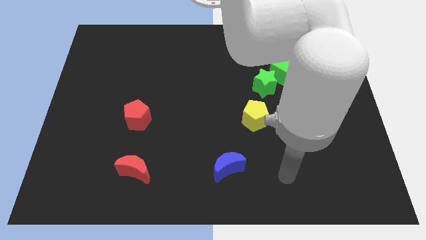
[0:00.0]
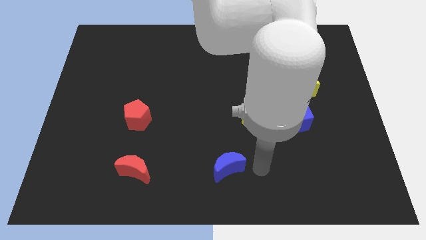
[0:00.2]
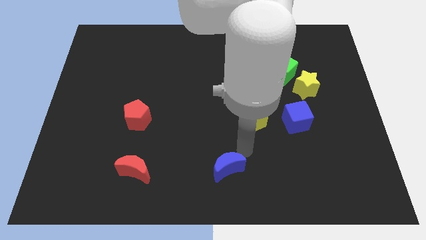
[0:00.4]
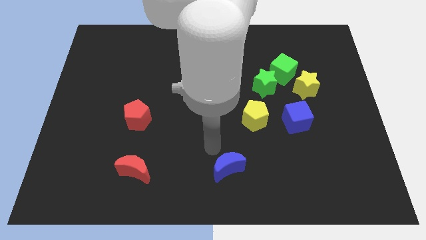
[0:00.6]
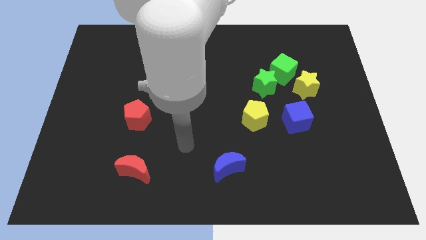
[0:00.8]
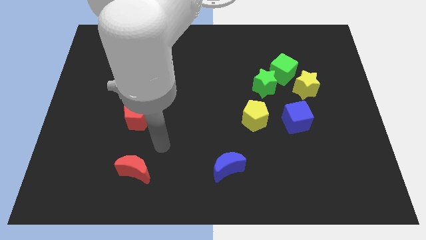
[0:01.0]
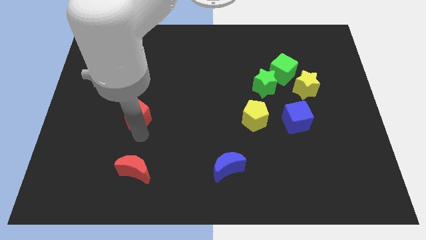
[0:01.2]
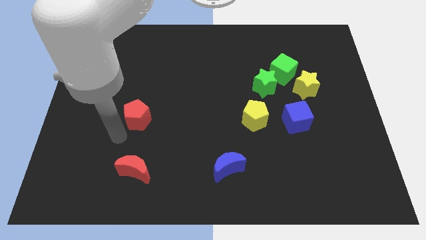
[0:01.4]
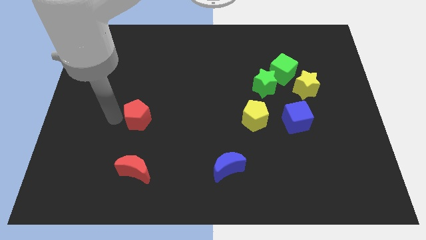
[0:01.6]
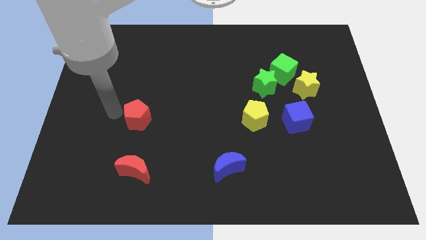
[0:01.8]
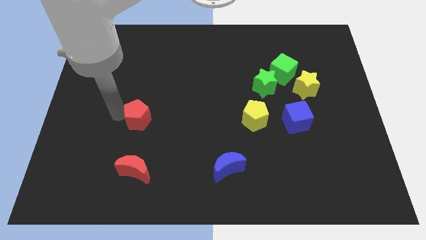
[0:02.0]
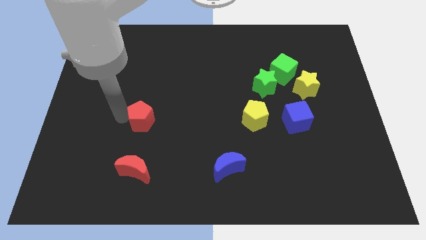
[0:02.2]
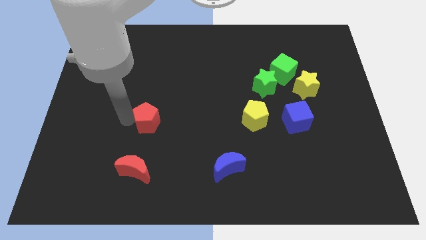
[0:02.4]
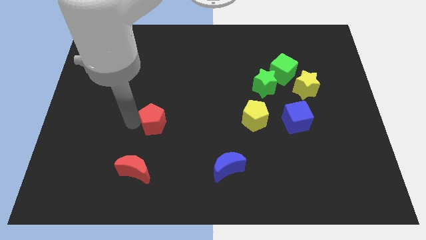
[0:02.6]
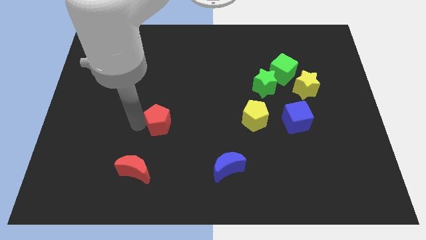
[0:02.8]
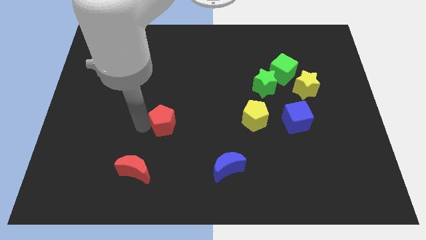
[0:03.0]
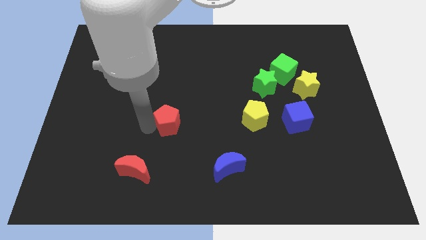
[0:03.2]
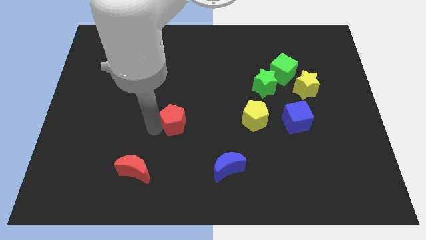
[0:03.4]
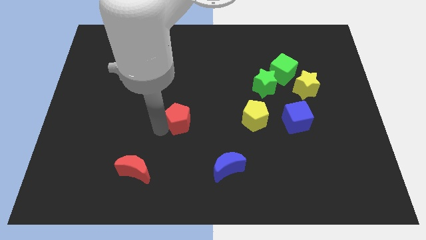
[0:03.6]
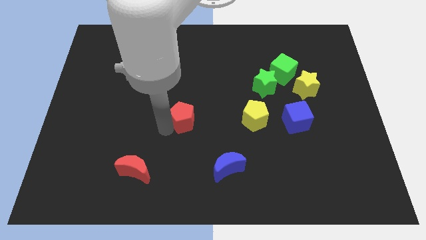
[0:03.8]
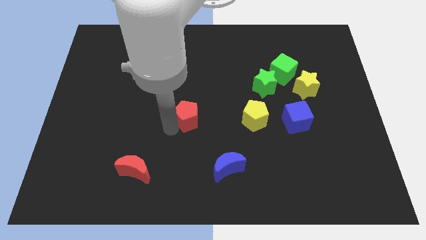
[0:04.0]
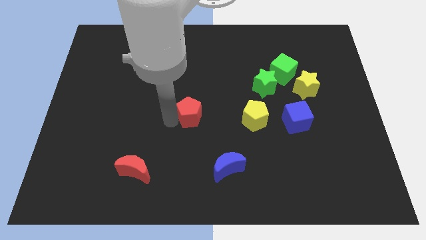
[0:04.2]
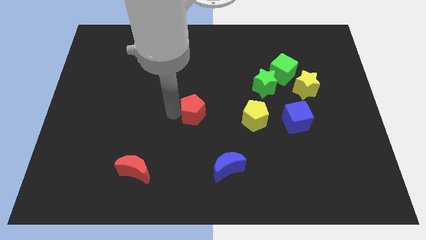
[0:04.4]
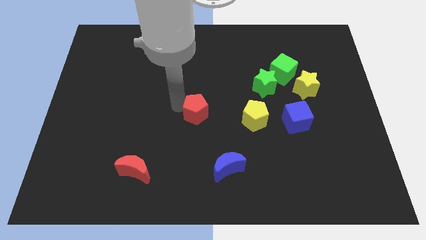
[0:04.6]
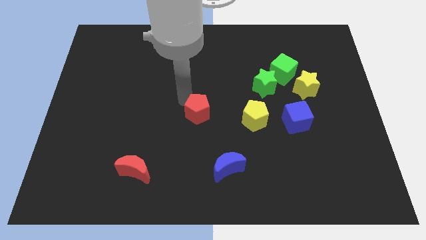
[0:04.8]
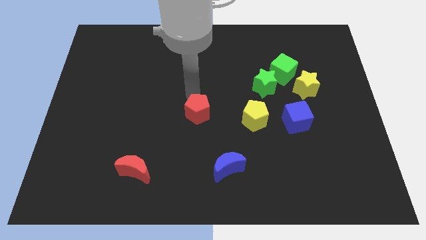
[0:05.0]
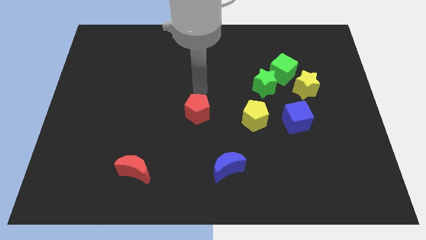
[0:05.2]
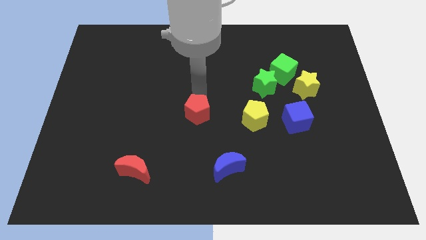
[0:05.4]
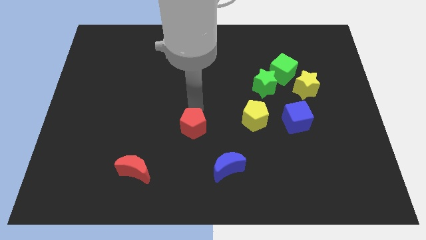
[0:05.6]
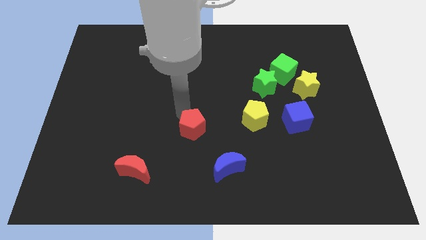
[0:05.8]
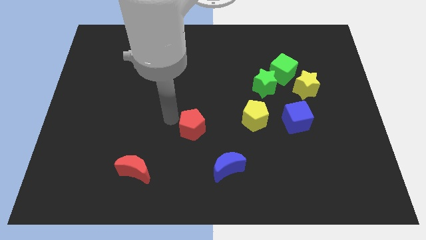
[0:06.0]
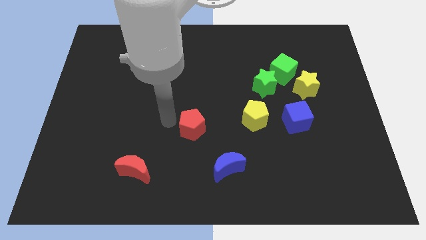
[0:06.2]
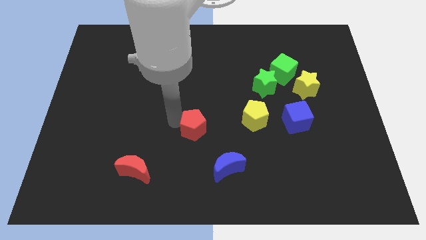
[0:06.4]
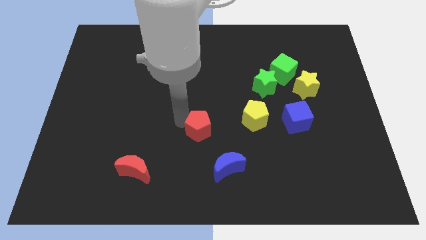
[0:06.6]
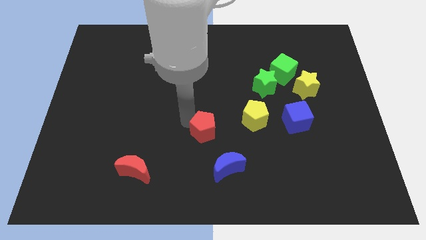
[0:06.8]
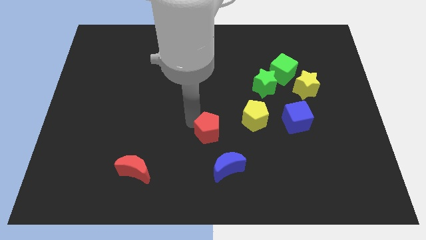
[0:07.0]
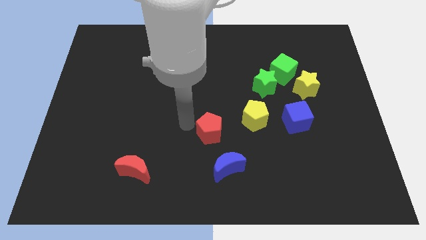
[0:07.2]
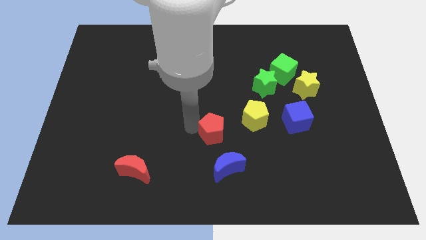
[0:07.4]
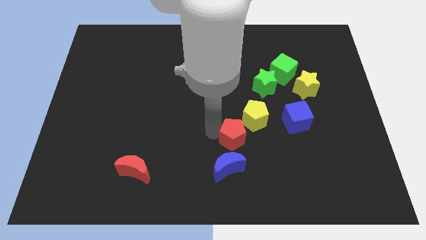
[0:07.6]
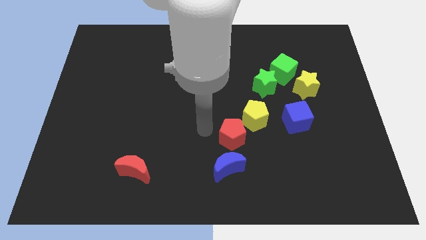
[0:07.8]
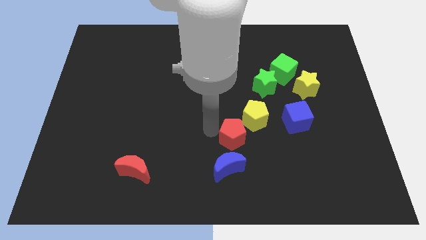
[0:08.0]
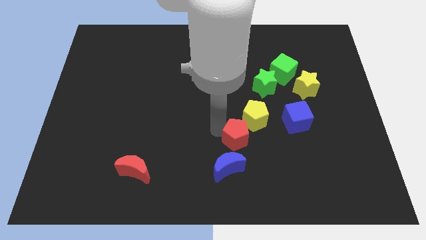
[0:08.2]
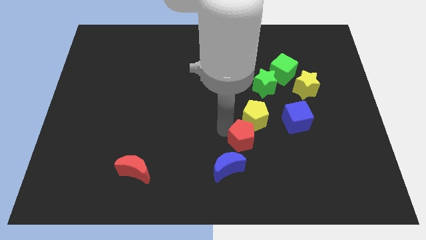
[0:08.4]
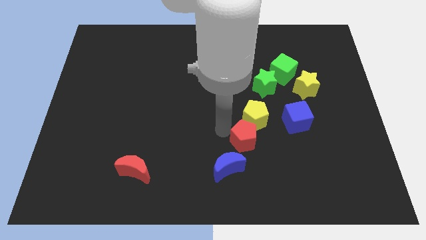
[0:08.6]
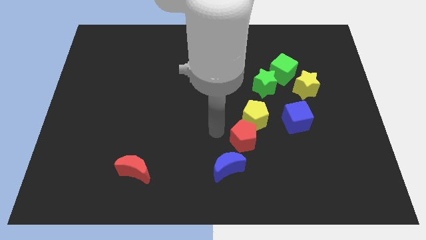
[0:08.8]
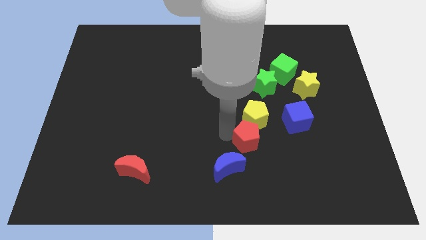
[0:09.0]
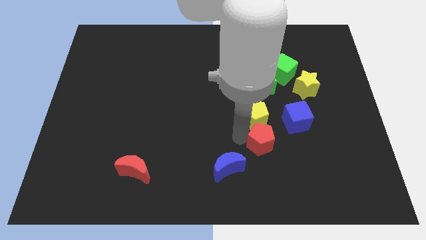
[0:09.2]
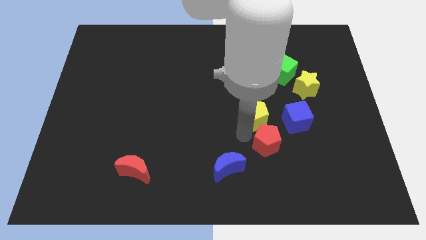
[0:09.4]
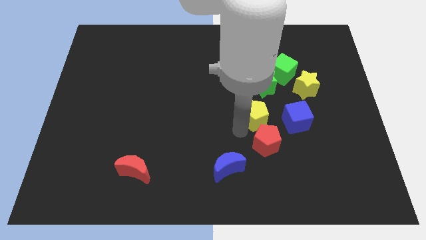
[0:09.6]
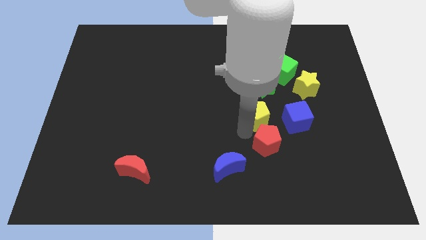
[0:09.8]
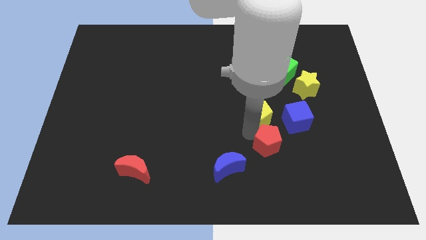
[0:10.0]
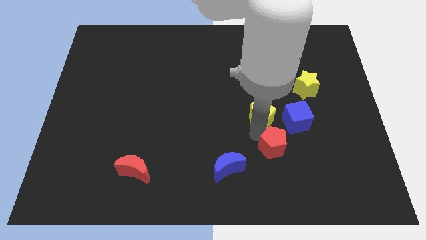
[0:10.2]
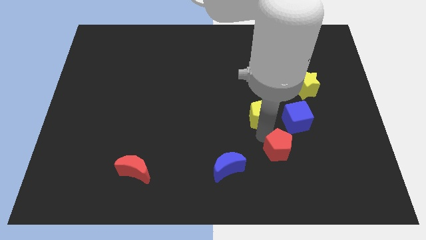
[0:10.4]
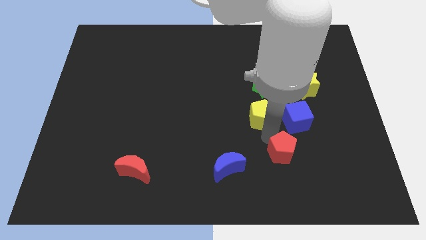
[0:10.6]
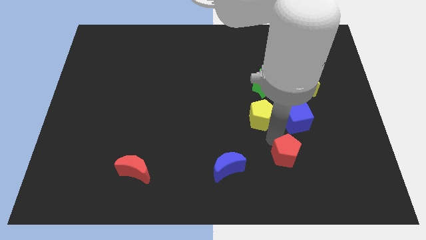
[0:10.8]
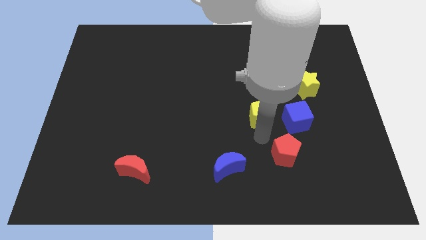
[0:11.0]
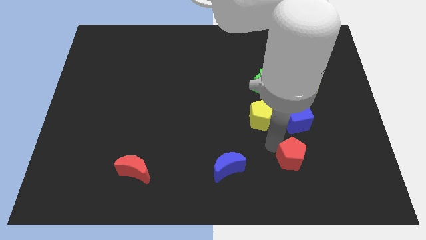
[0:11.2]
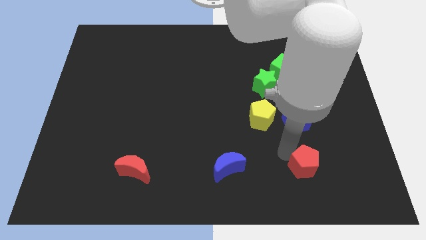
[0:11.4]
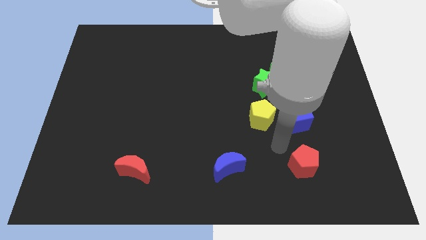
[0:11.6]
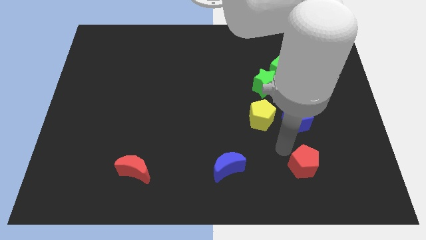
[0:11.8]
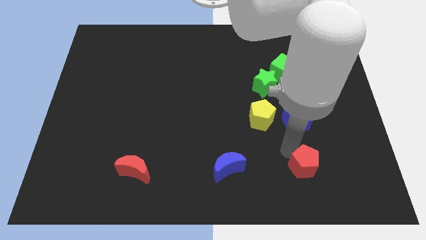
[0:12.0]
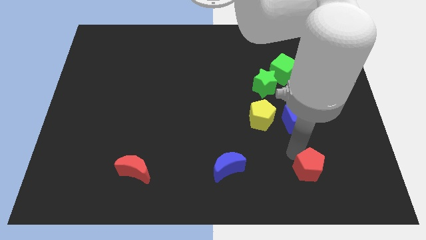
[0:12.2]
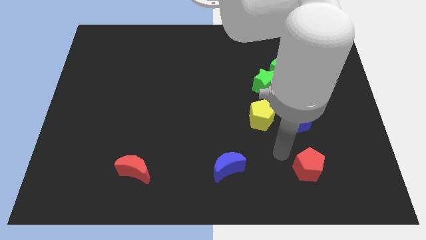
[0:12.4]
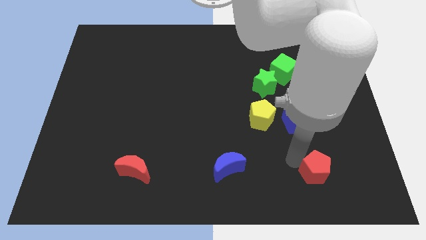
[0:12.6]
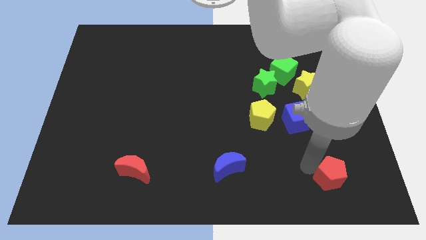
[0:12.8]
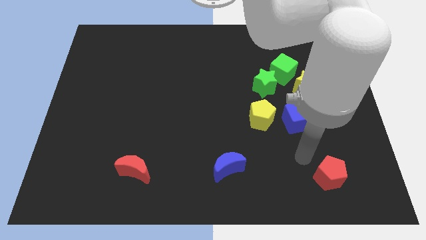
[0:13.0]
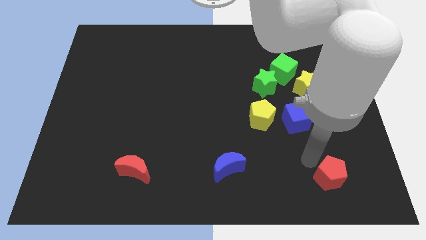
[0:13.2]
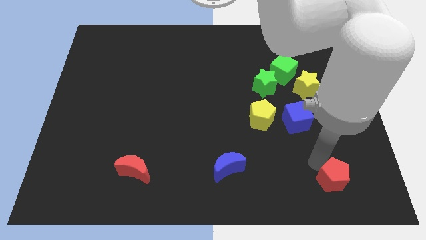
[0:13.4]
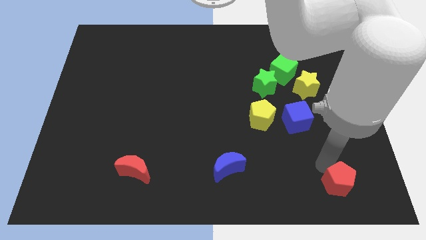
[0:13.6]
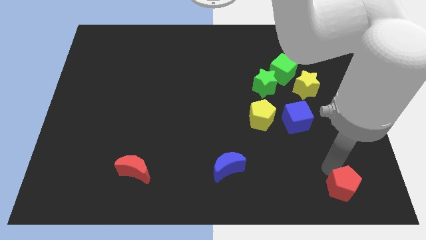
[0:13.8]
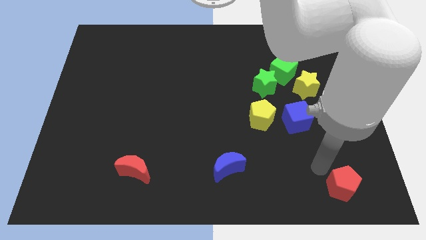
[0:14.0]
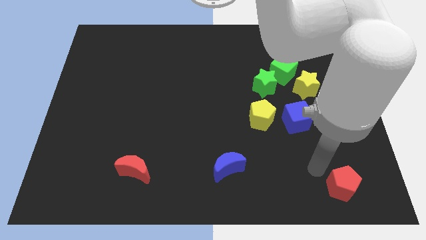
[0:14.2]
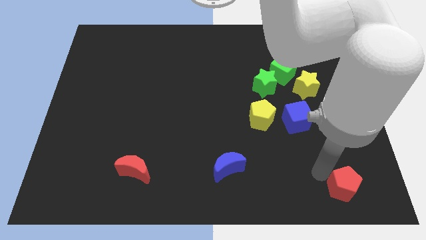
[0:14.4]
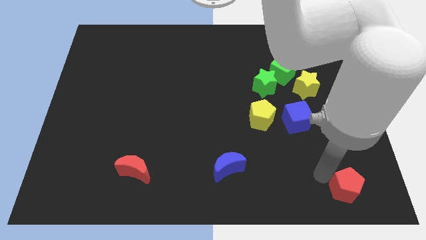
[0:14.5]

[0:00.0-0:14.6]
slide the red pentagon to the bottom right corner

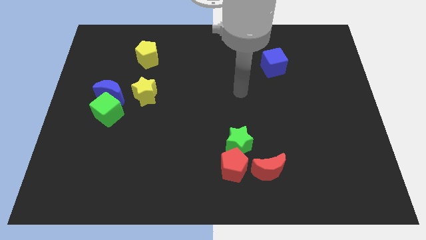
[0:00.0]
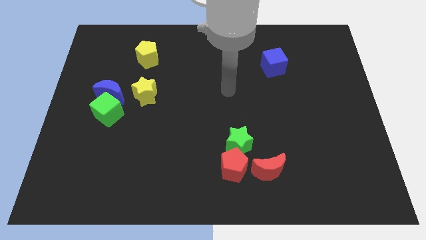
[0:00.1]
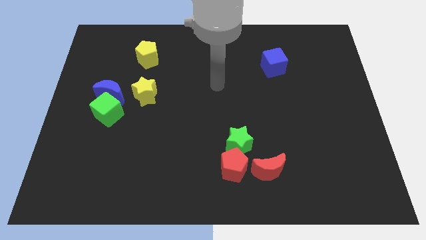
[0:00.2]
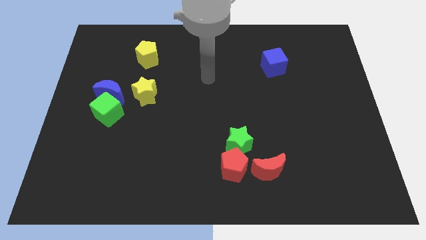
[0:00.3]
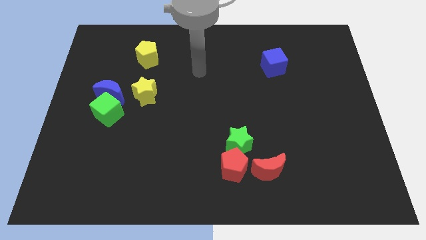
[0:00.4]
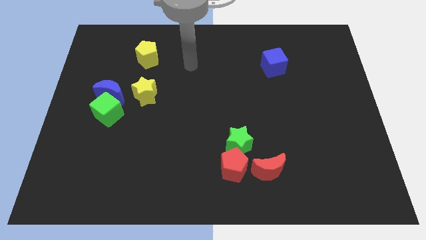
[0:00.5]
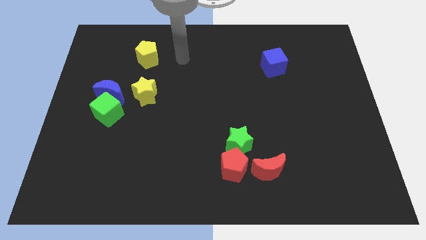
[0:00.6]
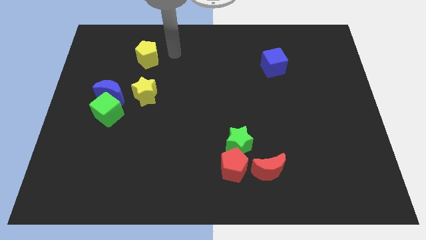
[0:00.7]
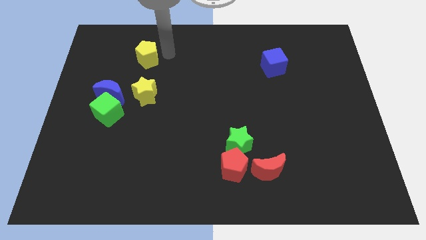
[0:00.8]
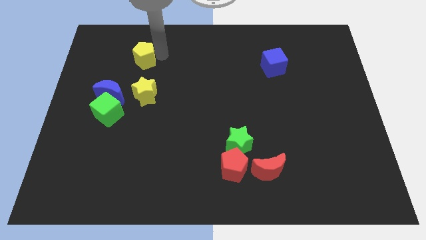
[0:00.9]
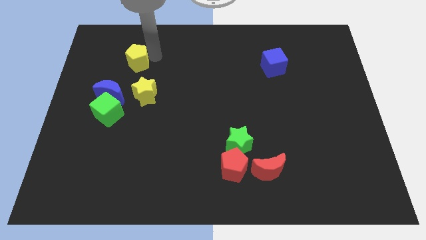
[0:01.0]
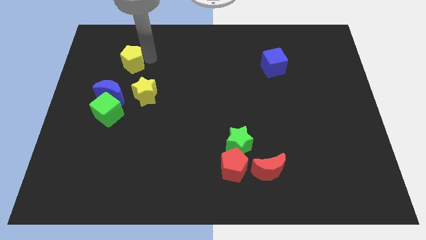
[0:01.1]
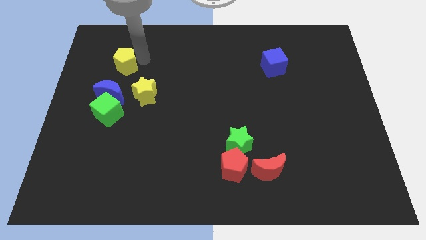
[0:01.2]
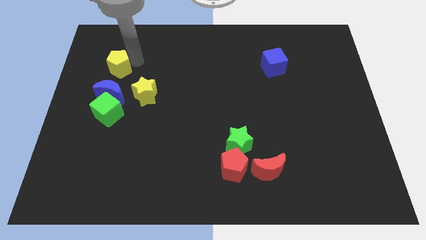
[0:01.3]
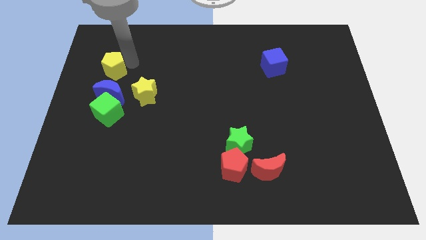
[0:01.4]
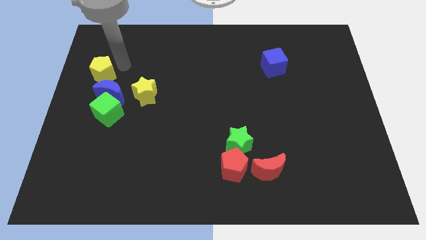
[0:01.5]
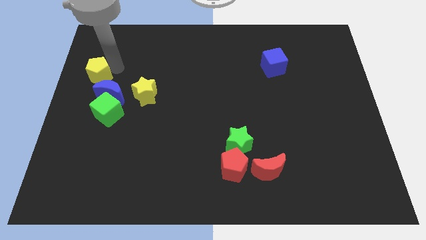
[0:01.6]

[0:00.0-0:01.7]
slide the yellow pentagon to the center left
